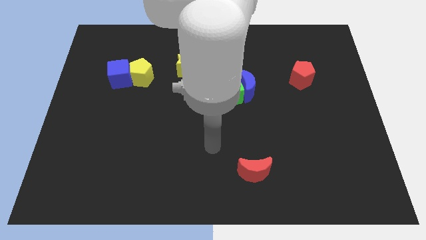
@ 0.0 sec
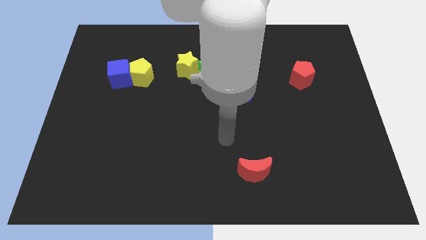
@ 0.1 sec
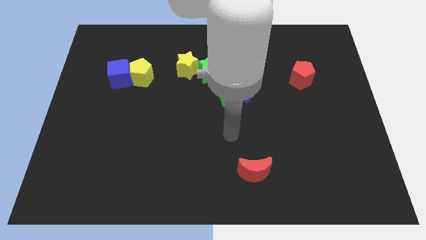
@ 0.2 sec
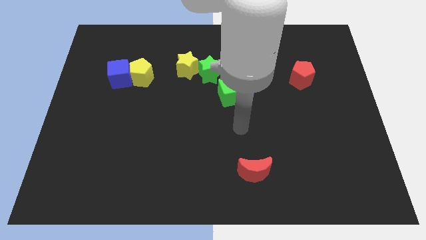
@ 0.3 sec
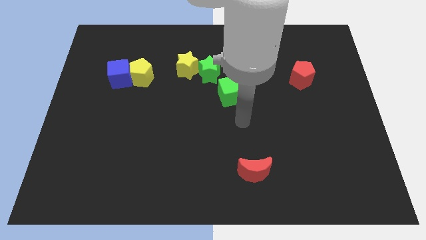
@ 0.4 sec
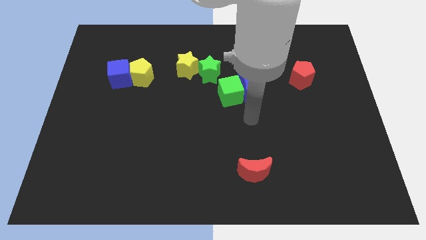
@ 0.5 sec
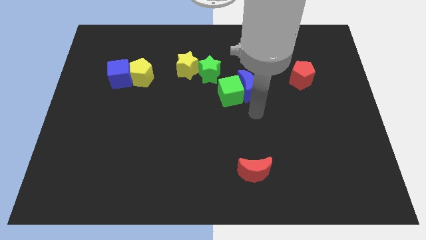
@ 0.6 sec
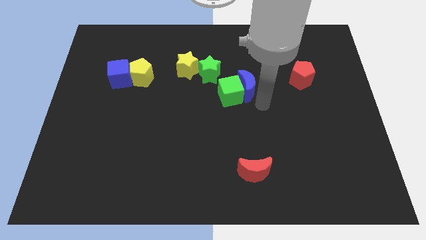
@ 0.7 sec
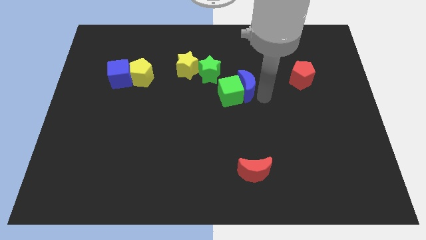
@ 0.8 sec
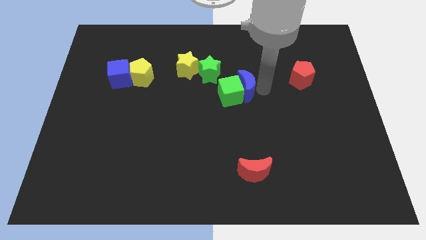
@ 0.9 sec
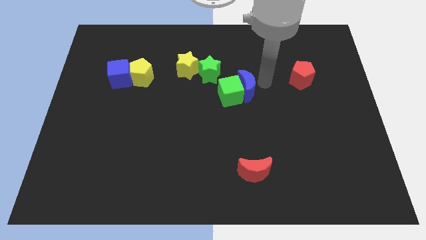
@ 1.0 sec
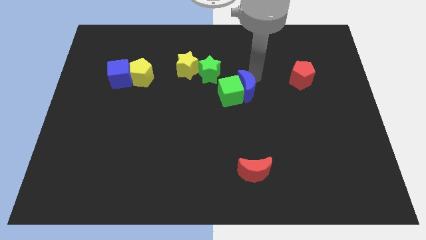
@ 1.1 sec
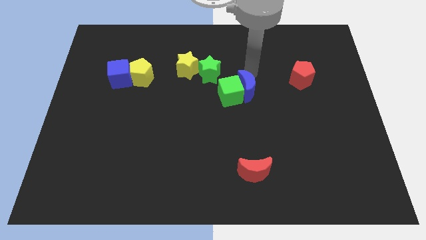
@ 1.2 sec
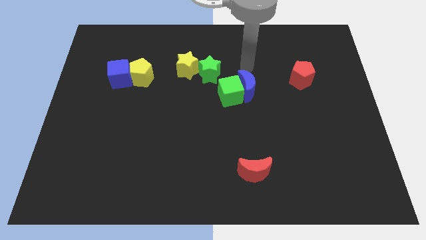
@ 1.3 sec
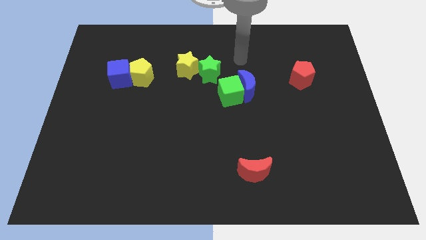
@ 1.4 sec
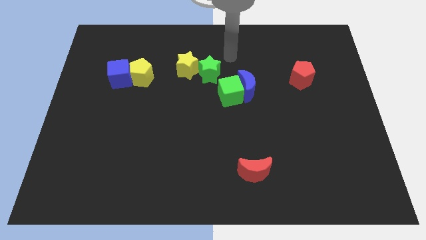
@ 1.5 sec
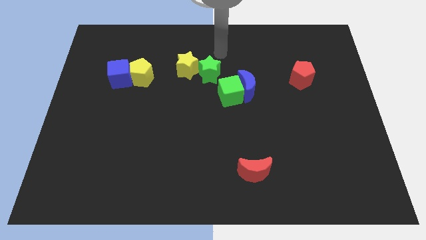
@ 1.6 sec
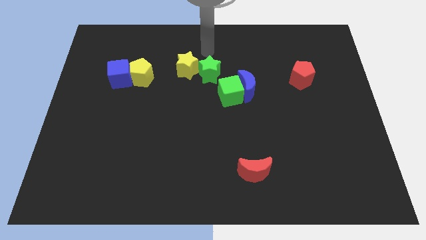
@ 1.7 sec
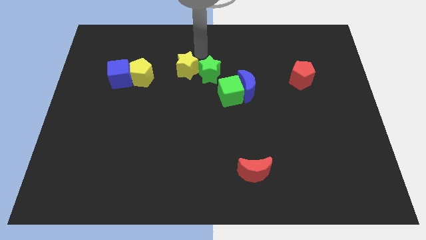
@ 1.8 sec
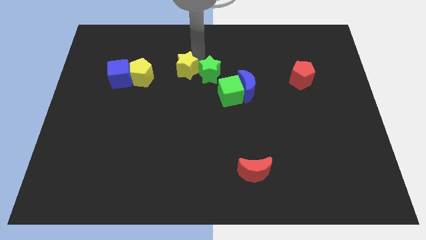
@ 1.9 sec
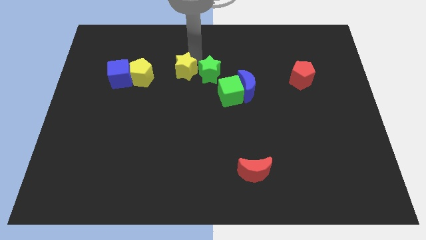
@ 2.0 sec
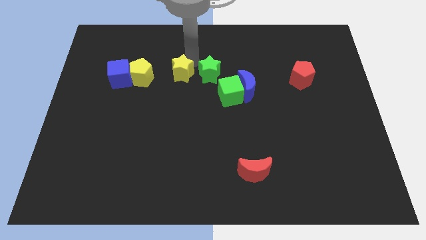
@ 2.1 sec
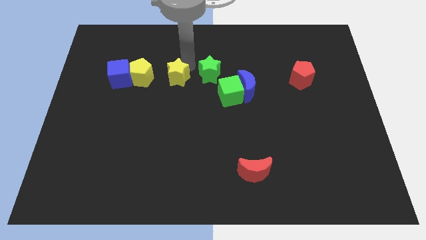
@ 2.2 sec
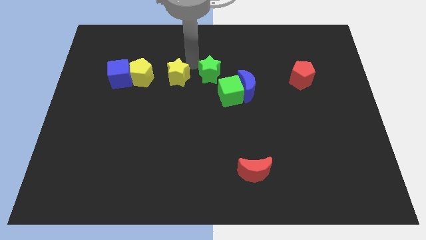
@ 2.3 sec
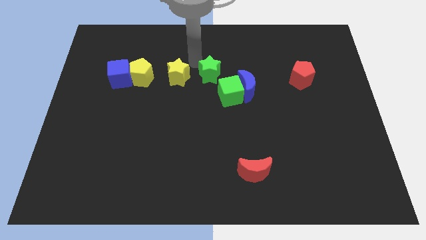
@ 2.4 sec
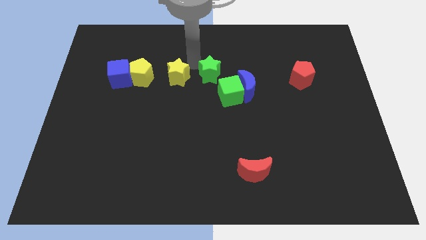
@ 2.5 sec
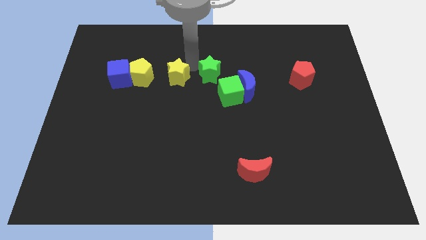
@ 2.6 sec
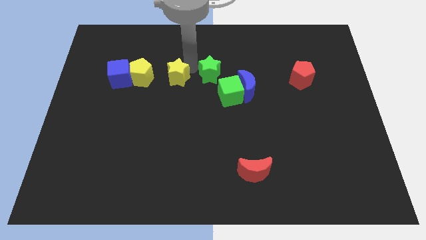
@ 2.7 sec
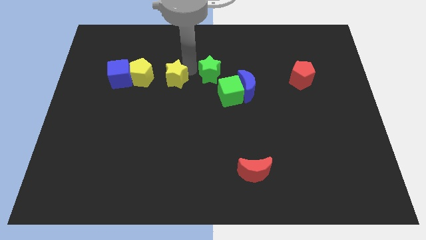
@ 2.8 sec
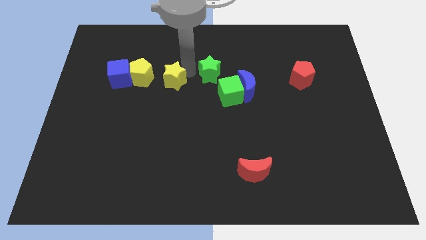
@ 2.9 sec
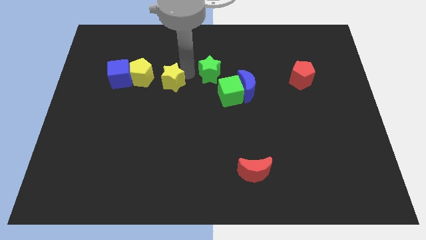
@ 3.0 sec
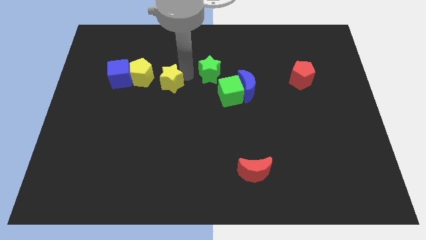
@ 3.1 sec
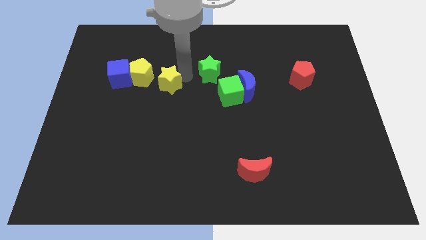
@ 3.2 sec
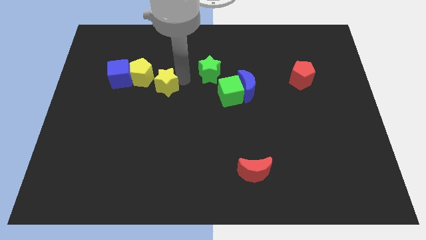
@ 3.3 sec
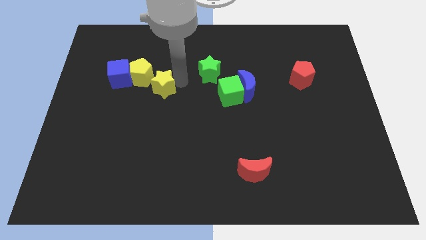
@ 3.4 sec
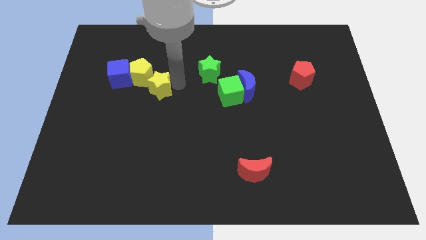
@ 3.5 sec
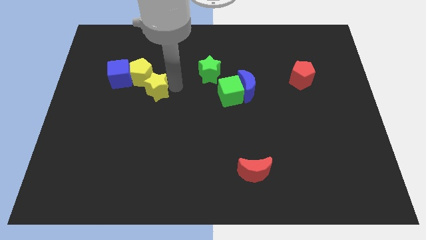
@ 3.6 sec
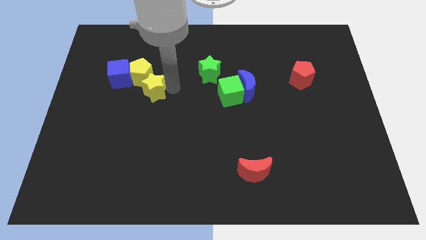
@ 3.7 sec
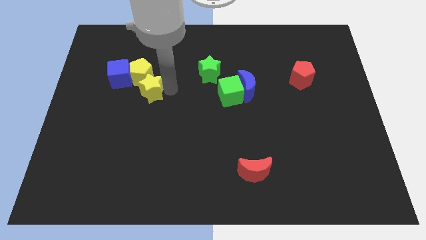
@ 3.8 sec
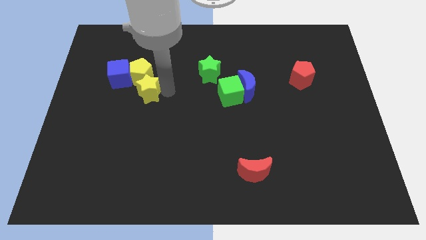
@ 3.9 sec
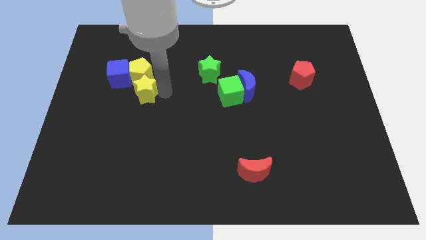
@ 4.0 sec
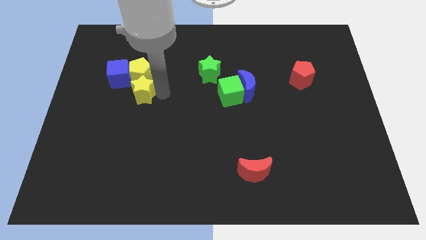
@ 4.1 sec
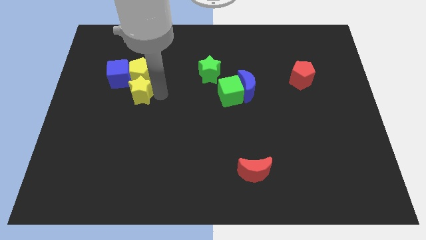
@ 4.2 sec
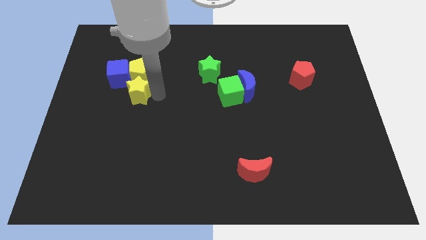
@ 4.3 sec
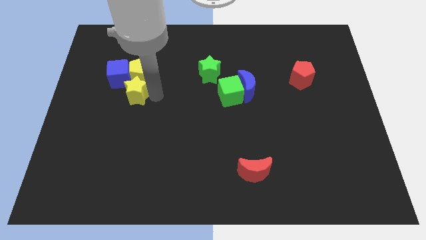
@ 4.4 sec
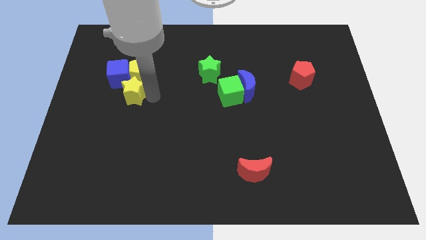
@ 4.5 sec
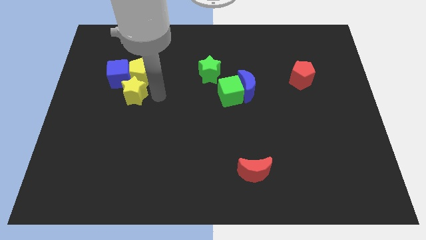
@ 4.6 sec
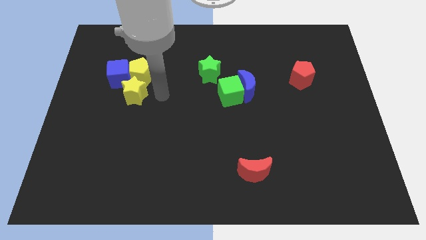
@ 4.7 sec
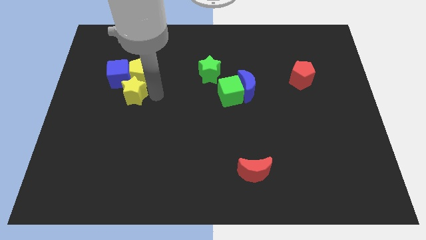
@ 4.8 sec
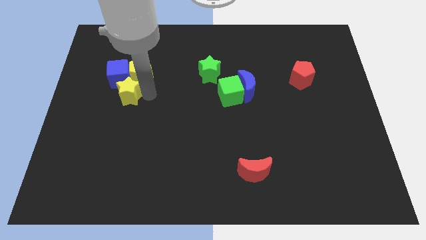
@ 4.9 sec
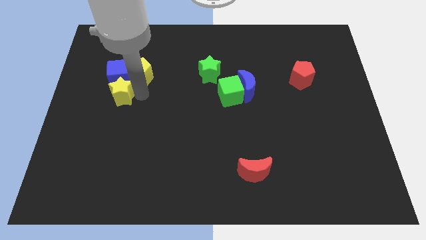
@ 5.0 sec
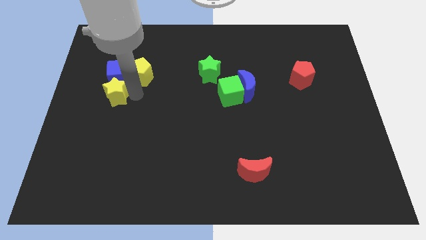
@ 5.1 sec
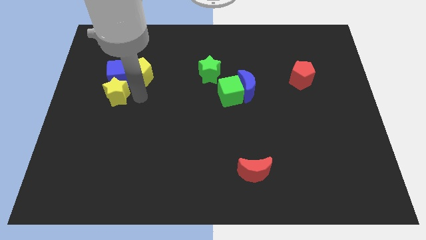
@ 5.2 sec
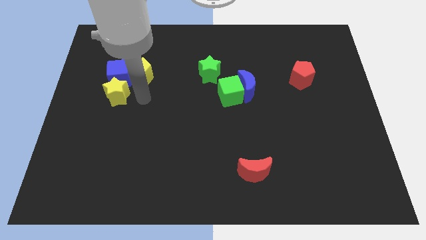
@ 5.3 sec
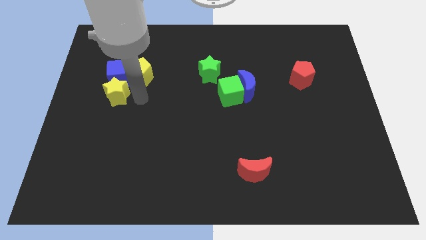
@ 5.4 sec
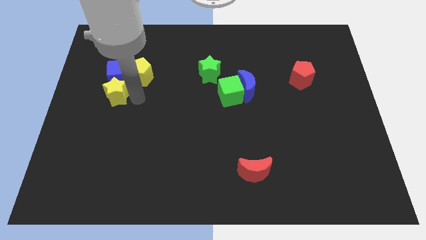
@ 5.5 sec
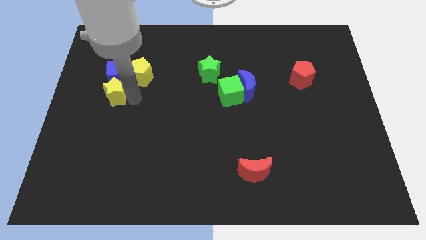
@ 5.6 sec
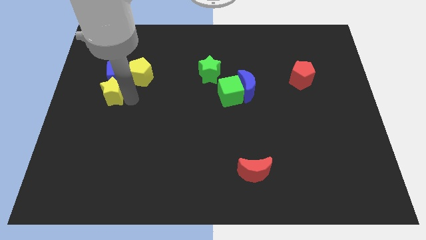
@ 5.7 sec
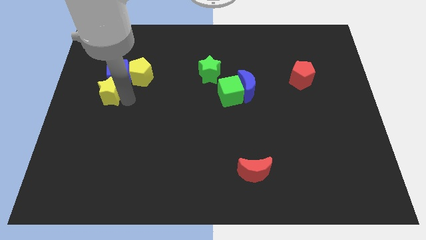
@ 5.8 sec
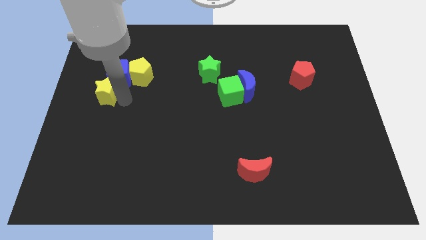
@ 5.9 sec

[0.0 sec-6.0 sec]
push the yellow star to the left side

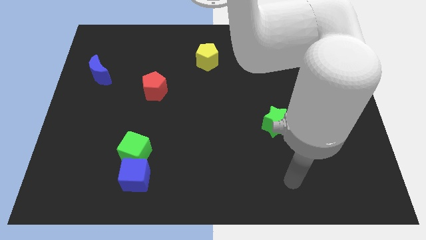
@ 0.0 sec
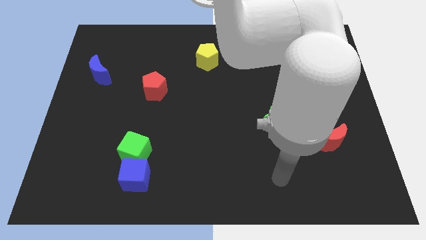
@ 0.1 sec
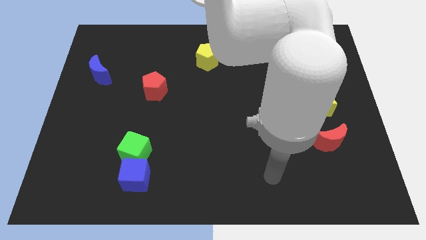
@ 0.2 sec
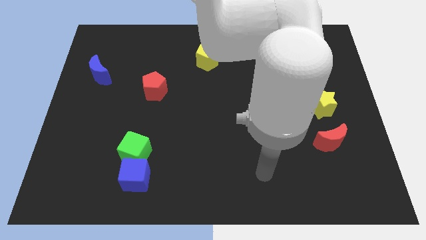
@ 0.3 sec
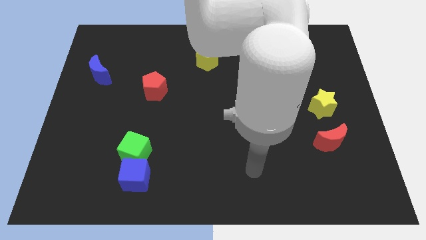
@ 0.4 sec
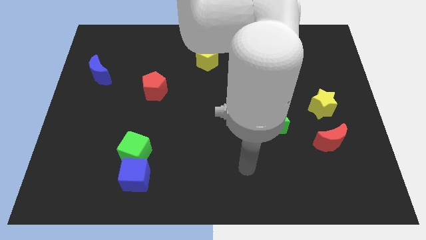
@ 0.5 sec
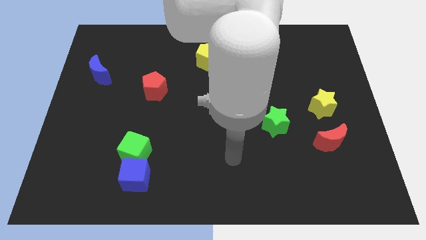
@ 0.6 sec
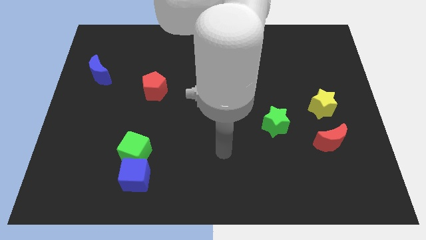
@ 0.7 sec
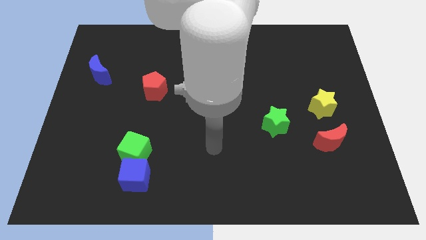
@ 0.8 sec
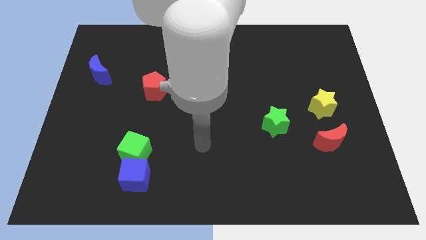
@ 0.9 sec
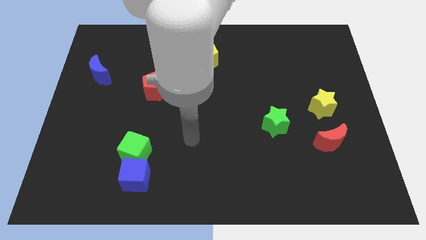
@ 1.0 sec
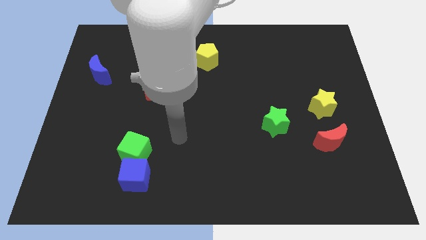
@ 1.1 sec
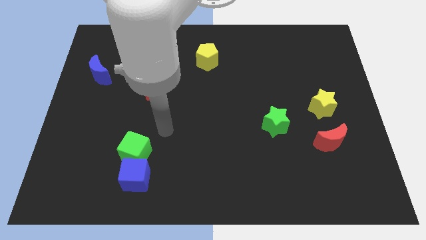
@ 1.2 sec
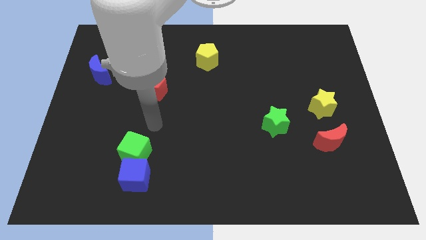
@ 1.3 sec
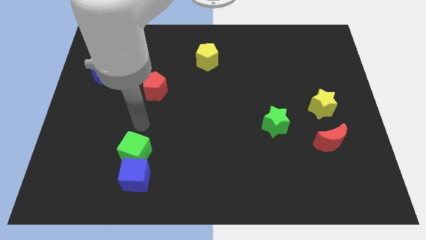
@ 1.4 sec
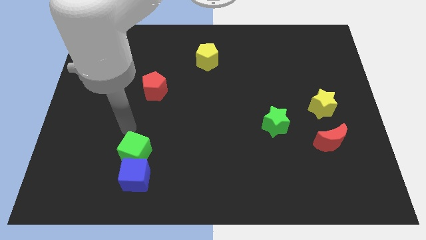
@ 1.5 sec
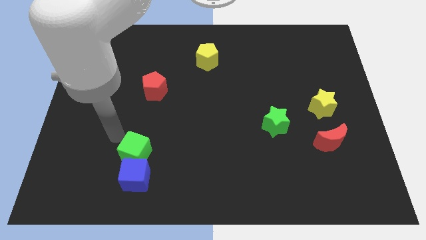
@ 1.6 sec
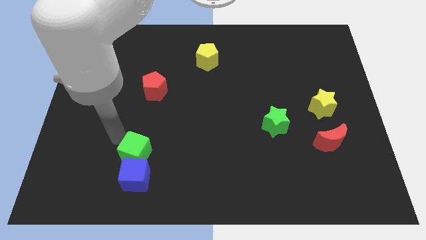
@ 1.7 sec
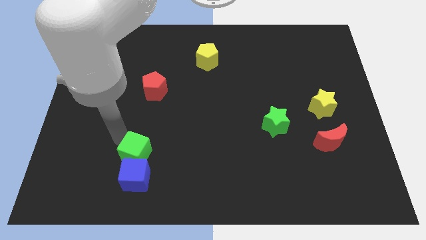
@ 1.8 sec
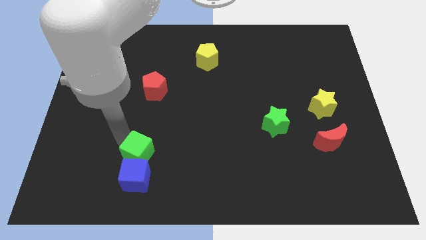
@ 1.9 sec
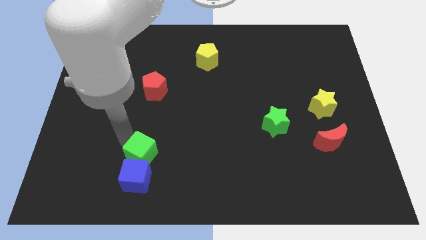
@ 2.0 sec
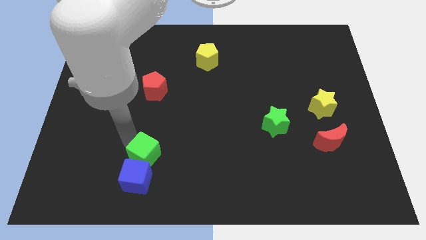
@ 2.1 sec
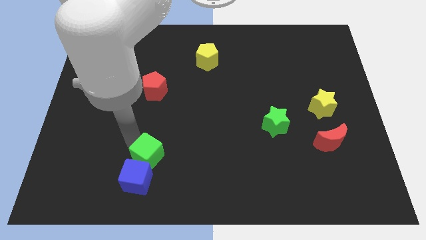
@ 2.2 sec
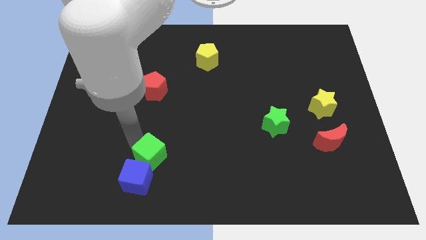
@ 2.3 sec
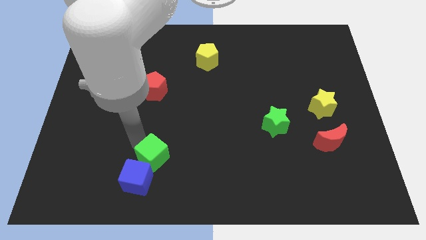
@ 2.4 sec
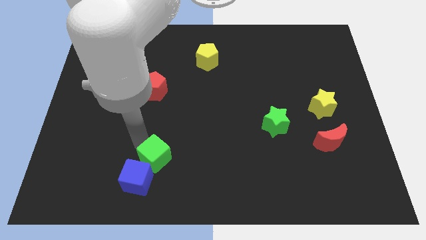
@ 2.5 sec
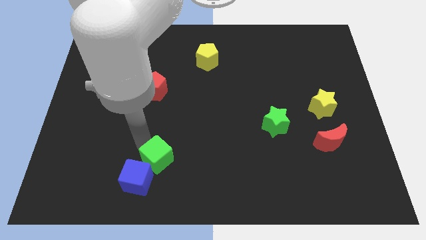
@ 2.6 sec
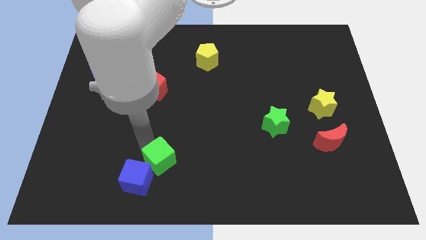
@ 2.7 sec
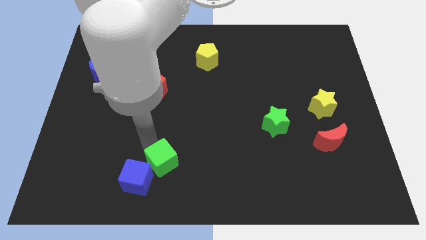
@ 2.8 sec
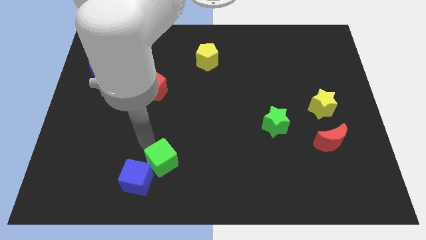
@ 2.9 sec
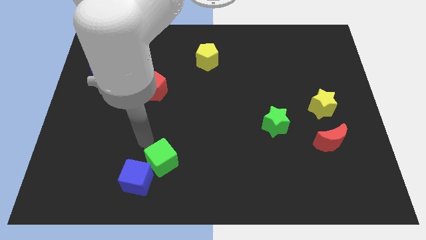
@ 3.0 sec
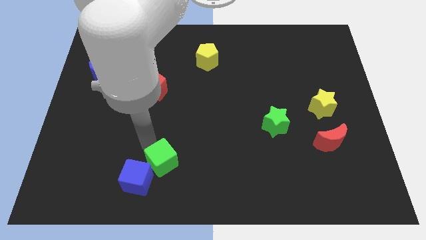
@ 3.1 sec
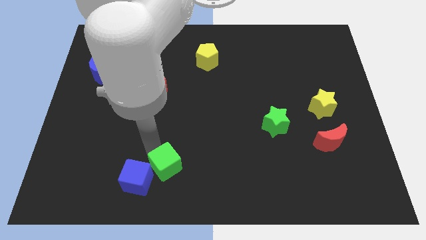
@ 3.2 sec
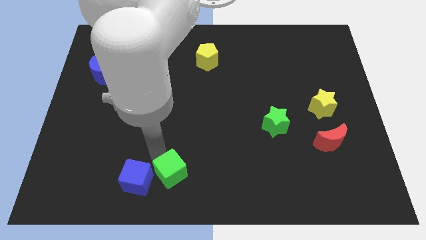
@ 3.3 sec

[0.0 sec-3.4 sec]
put the green cube to the bottom
